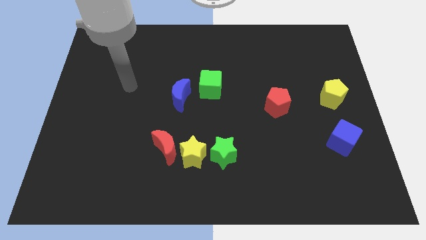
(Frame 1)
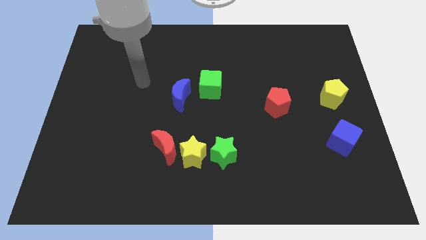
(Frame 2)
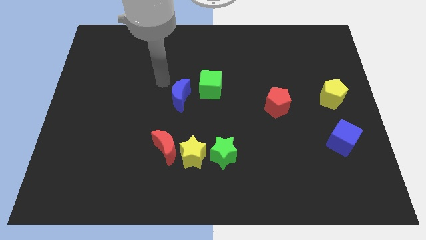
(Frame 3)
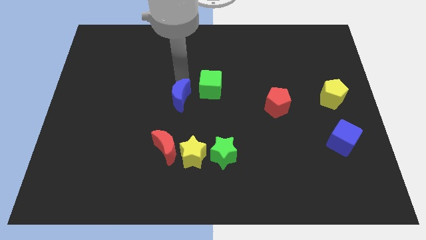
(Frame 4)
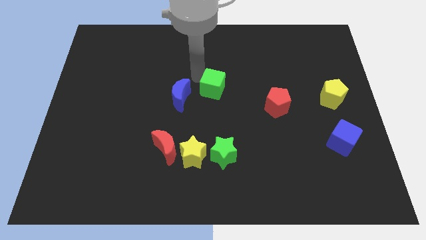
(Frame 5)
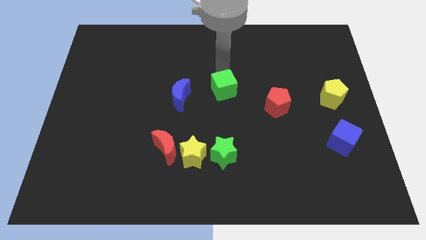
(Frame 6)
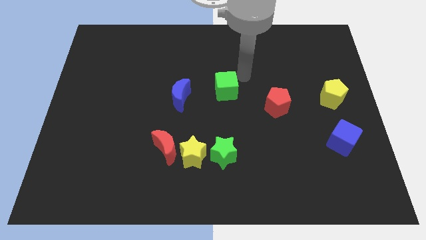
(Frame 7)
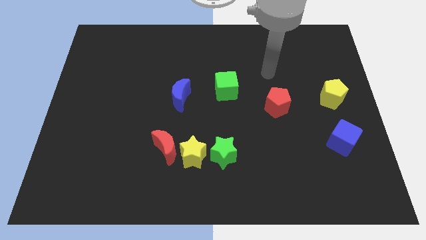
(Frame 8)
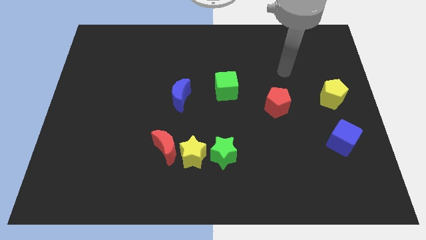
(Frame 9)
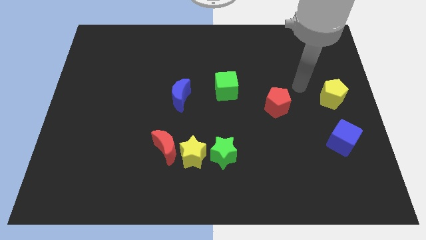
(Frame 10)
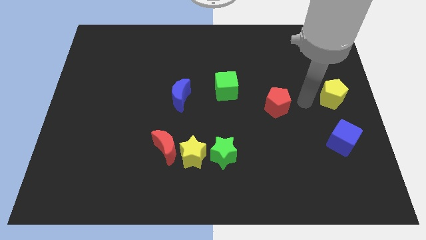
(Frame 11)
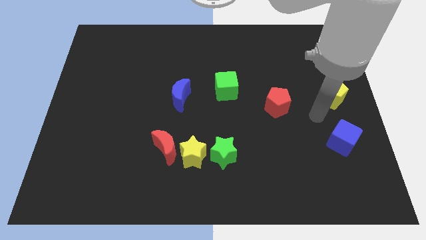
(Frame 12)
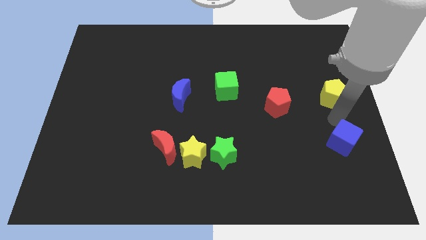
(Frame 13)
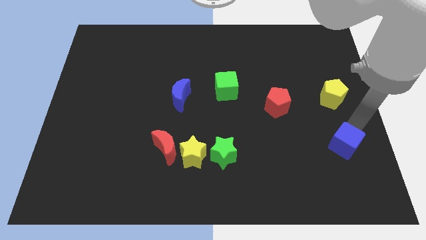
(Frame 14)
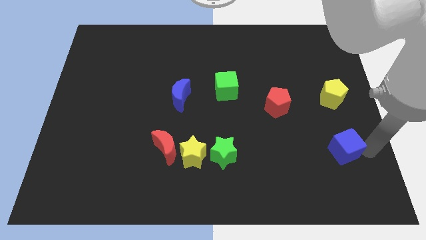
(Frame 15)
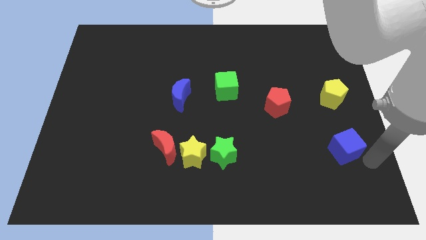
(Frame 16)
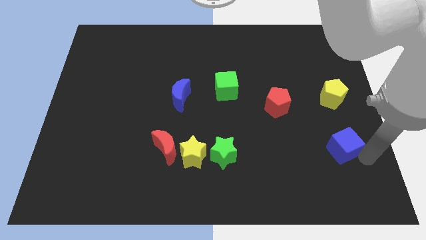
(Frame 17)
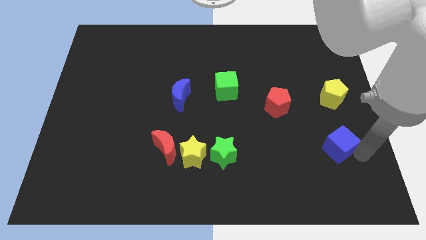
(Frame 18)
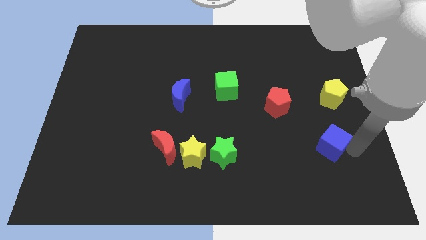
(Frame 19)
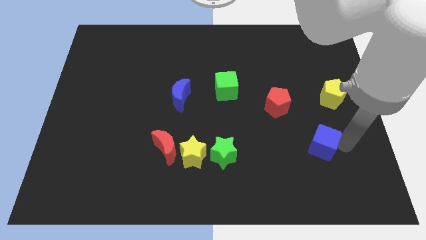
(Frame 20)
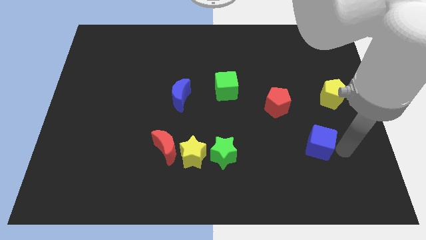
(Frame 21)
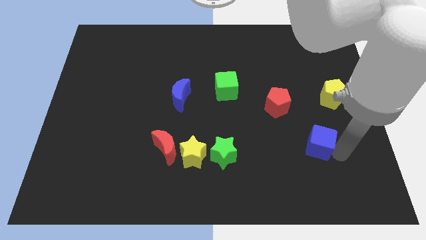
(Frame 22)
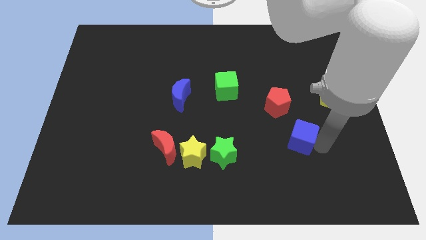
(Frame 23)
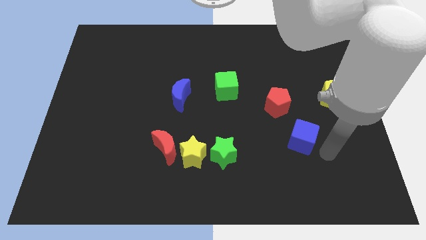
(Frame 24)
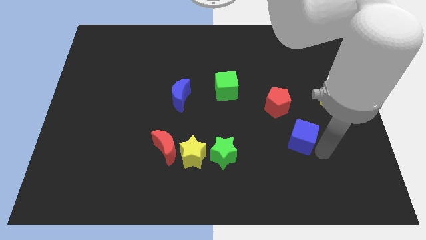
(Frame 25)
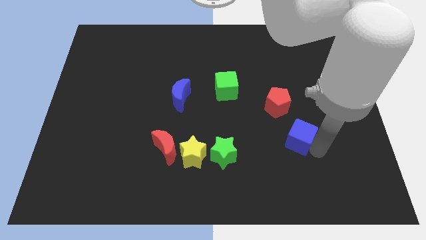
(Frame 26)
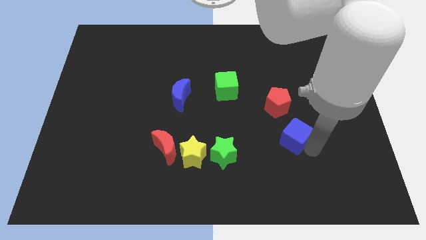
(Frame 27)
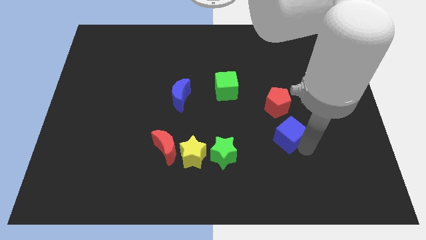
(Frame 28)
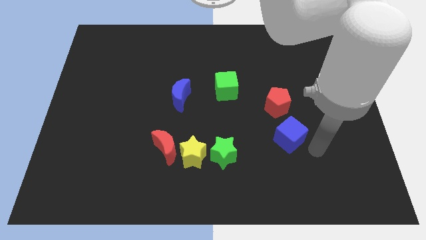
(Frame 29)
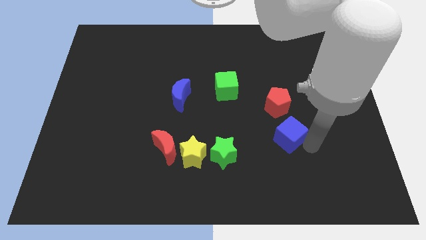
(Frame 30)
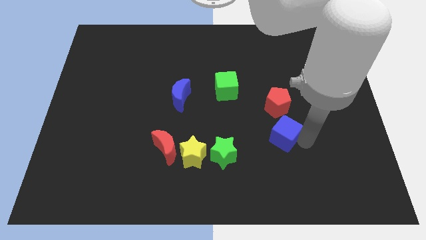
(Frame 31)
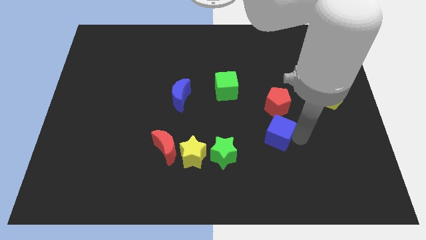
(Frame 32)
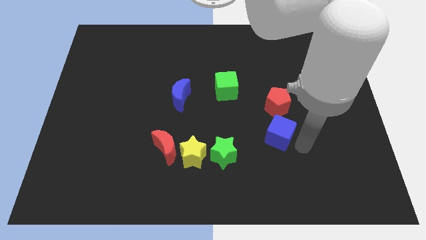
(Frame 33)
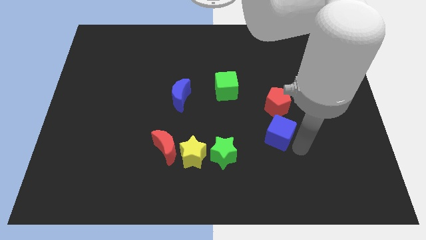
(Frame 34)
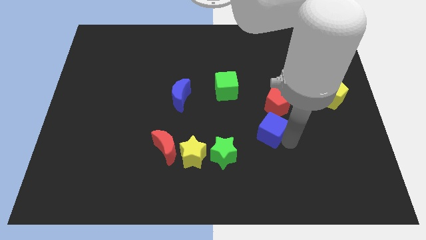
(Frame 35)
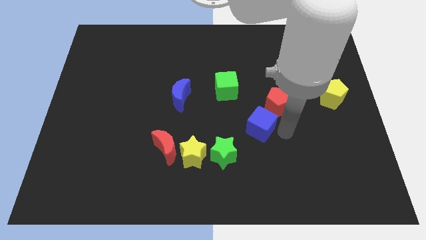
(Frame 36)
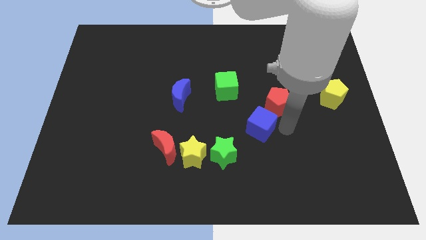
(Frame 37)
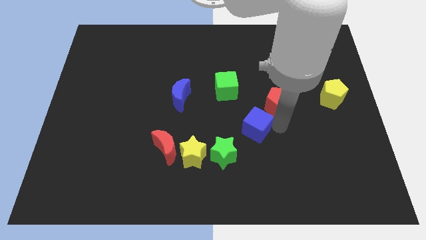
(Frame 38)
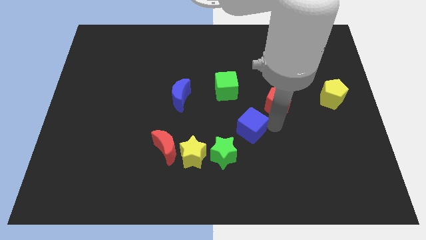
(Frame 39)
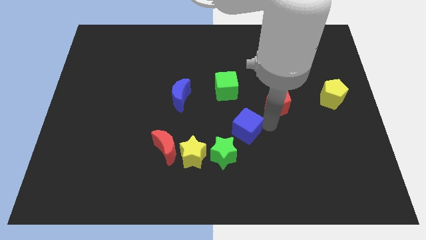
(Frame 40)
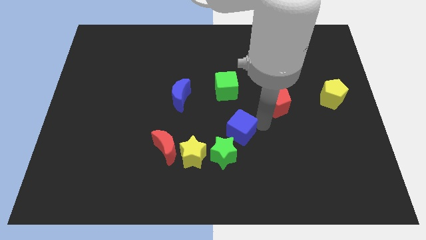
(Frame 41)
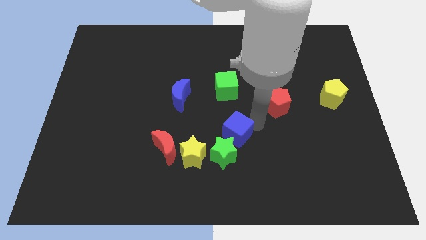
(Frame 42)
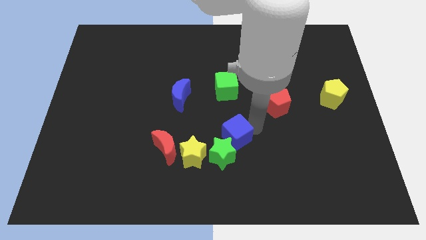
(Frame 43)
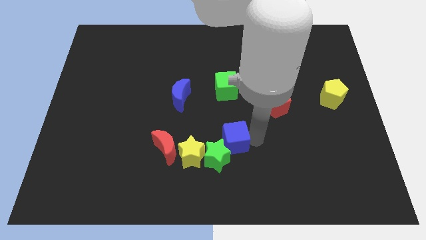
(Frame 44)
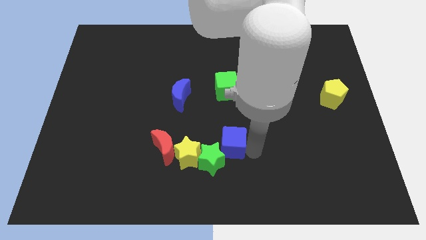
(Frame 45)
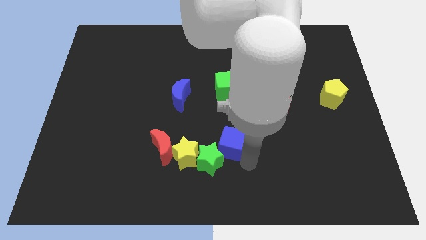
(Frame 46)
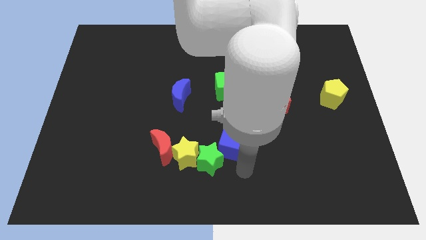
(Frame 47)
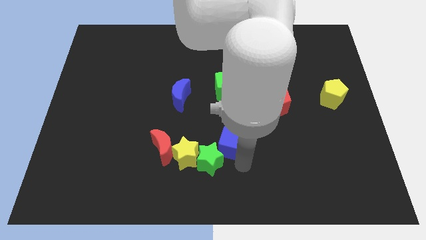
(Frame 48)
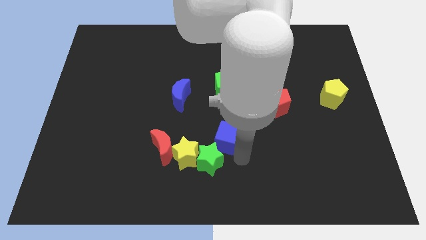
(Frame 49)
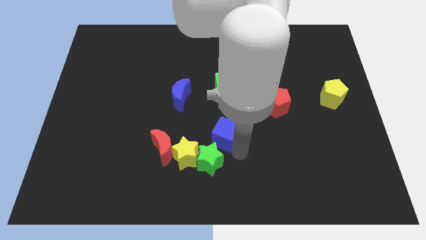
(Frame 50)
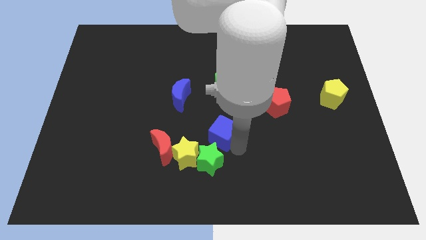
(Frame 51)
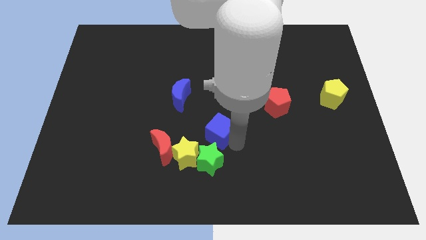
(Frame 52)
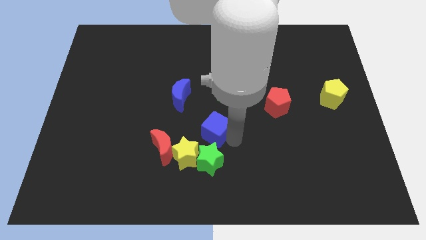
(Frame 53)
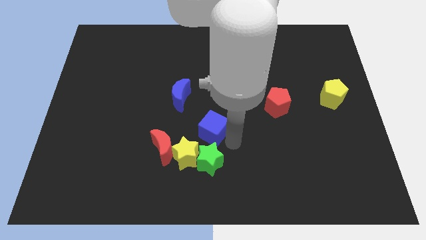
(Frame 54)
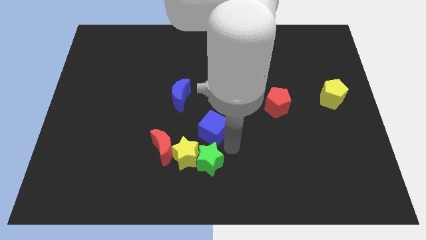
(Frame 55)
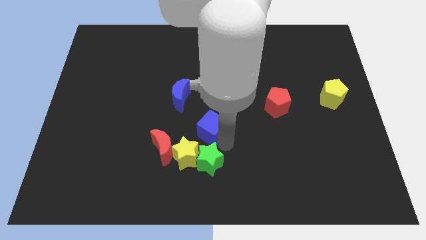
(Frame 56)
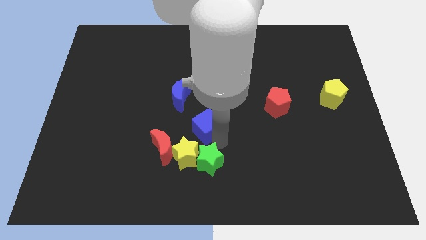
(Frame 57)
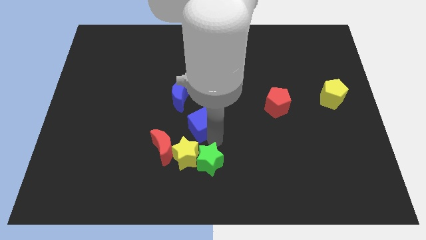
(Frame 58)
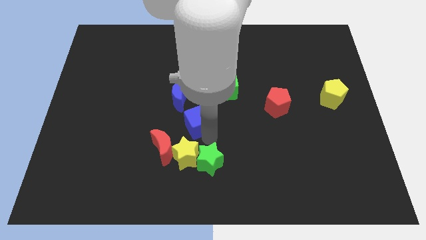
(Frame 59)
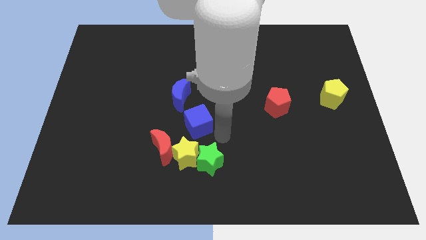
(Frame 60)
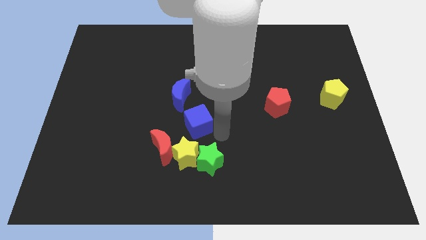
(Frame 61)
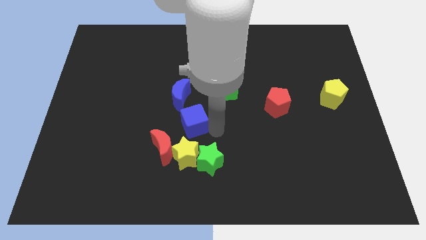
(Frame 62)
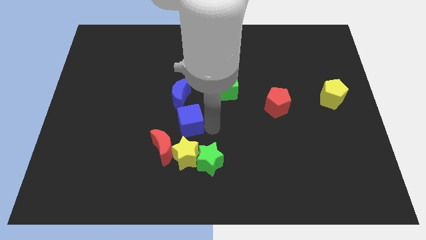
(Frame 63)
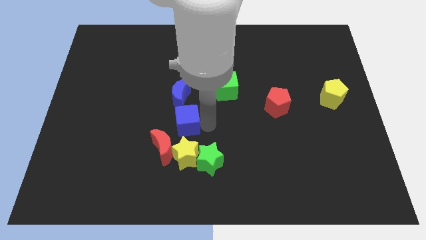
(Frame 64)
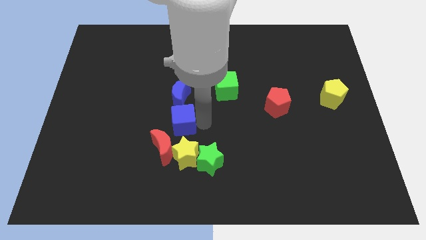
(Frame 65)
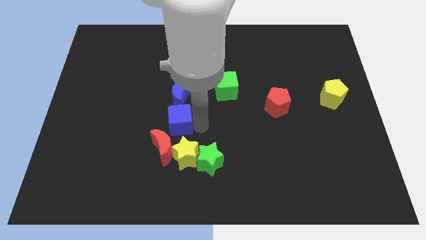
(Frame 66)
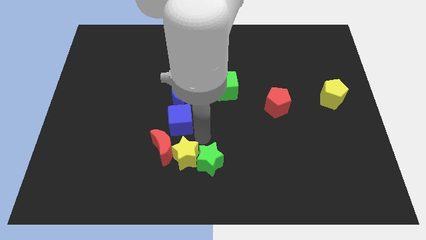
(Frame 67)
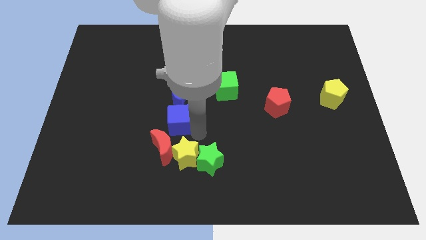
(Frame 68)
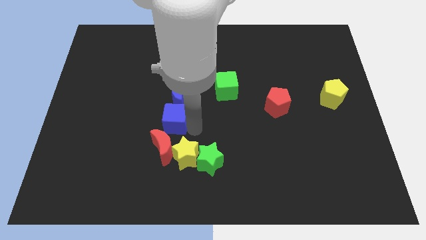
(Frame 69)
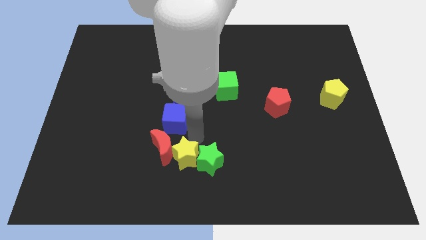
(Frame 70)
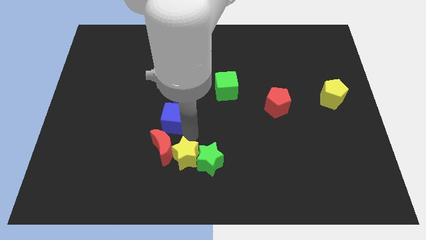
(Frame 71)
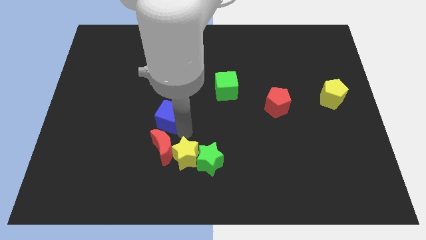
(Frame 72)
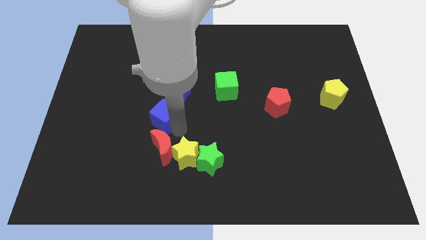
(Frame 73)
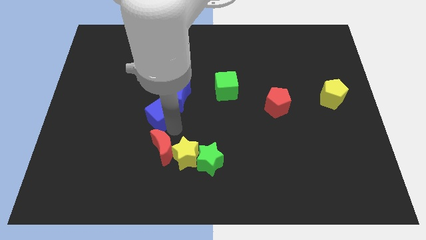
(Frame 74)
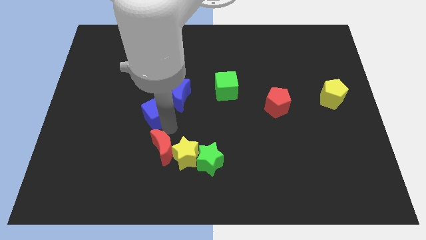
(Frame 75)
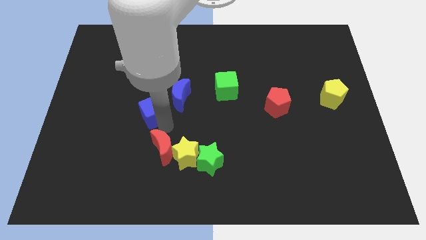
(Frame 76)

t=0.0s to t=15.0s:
move the blue cube to the left of the blue moon

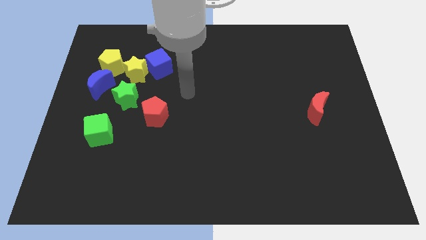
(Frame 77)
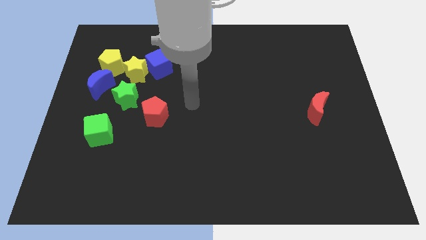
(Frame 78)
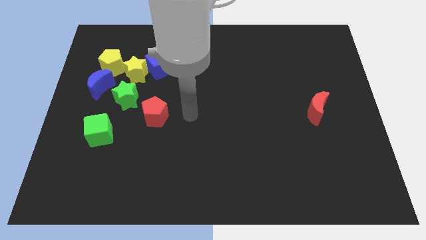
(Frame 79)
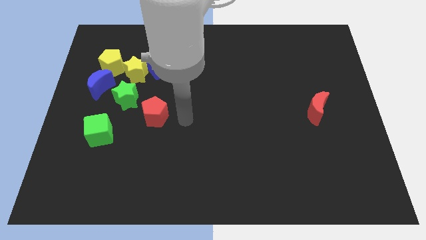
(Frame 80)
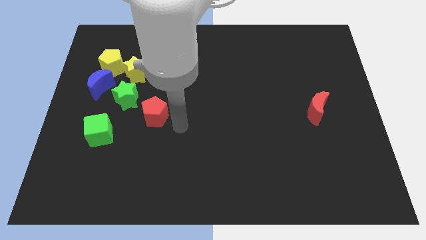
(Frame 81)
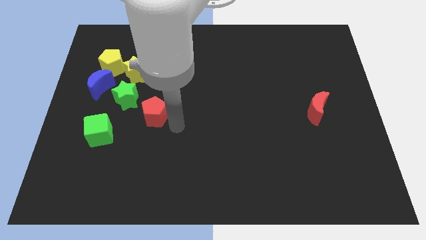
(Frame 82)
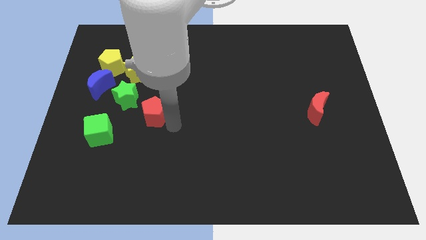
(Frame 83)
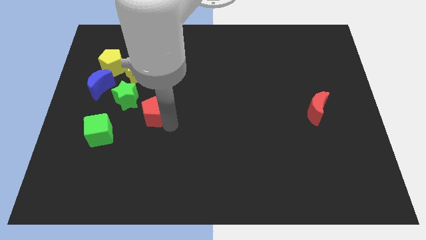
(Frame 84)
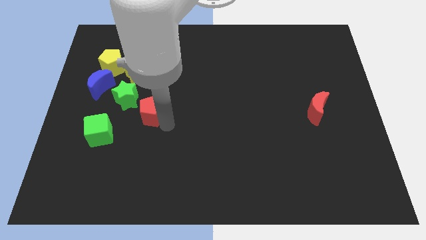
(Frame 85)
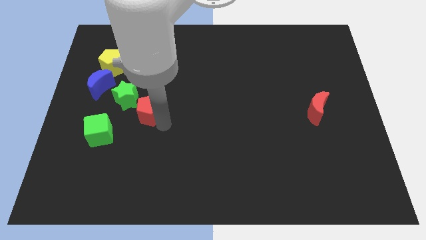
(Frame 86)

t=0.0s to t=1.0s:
put the red pentagon to the bottom of the yellow star
